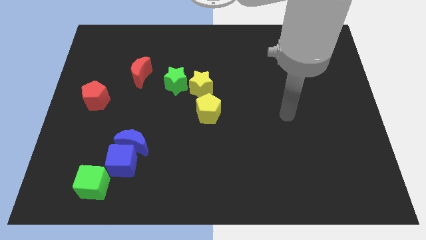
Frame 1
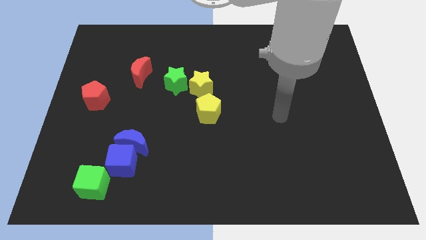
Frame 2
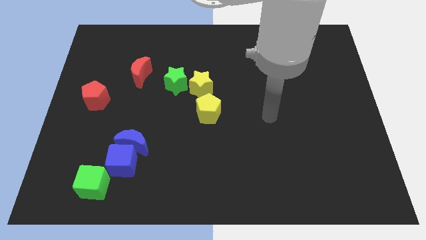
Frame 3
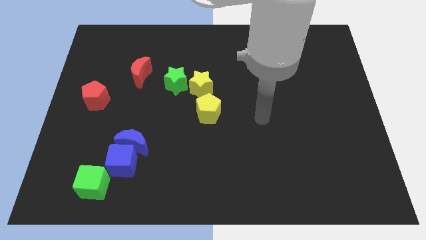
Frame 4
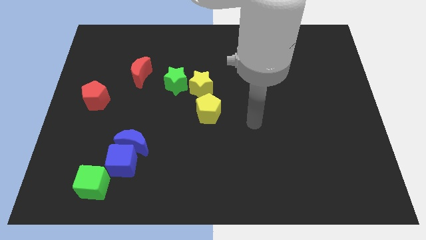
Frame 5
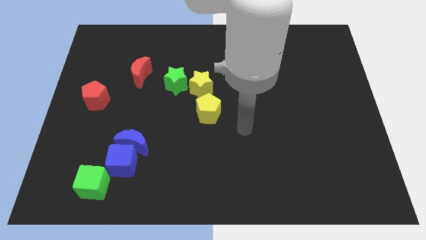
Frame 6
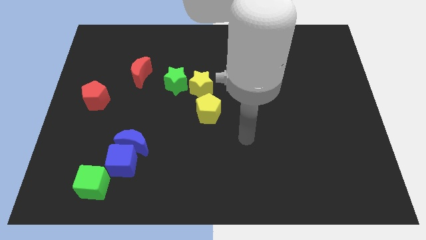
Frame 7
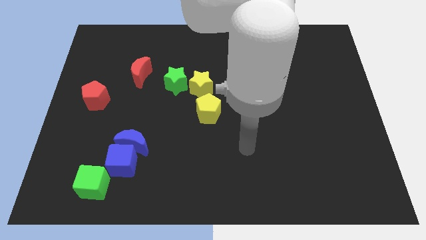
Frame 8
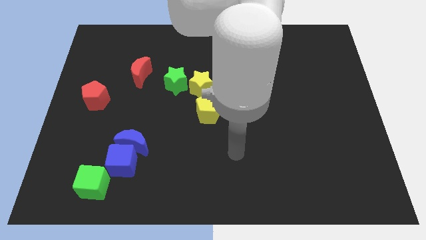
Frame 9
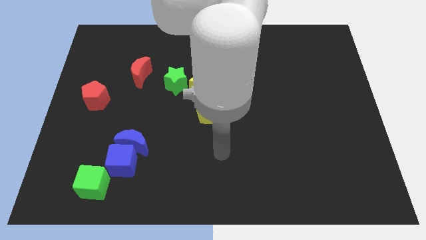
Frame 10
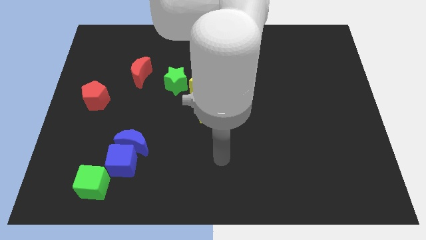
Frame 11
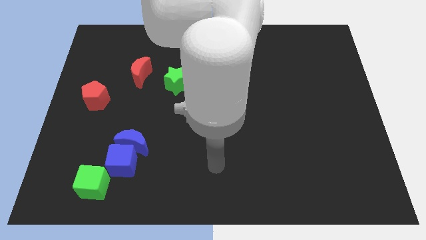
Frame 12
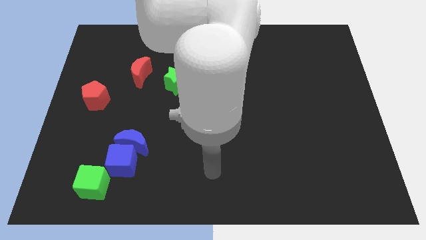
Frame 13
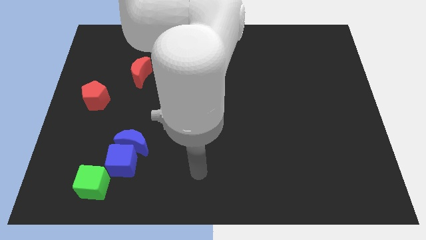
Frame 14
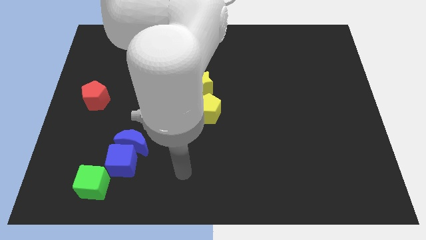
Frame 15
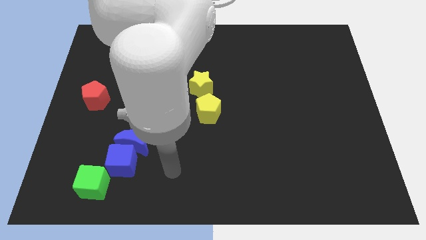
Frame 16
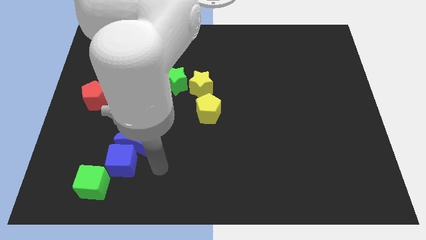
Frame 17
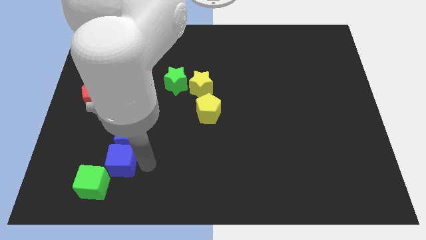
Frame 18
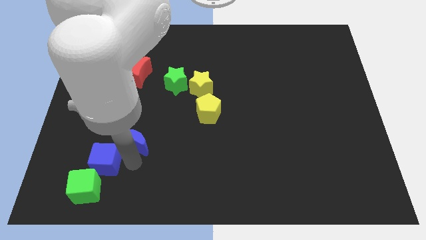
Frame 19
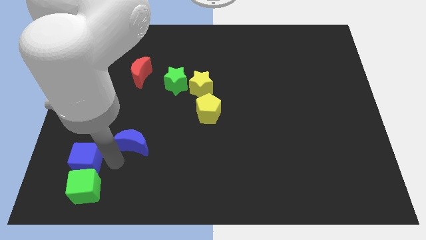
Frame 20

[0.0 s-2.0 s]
separate the blue moon from the blue cube

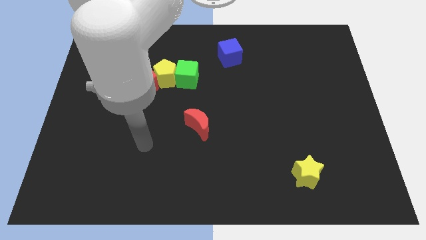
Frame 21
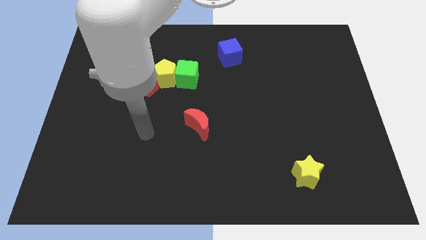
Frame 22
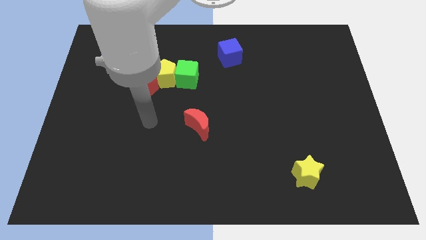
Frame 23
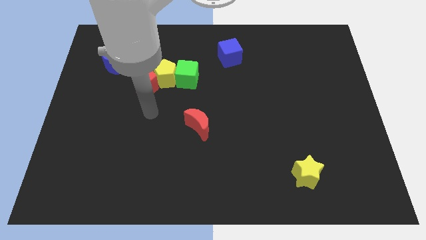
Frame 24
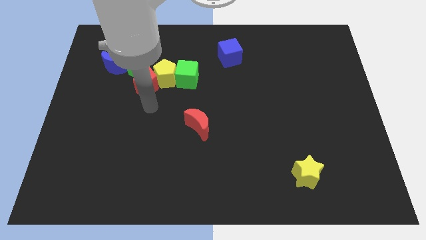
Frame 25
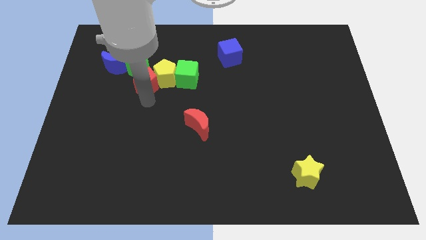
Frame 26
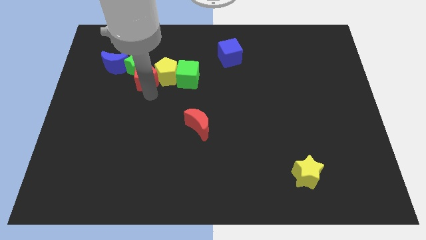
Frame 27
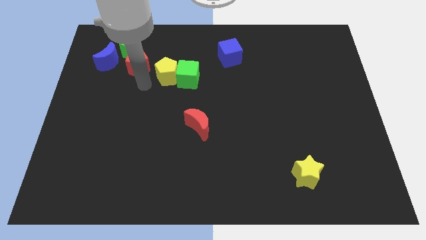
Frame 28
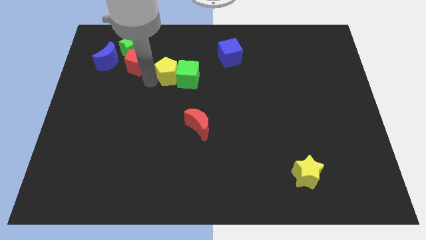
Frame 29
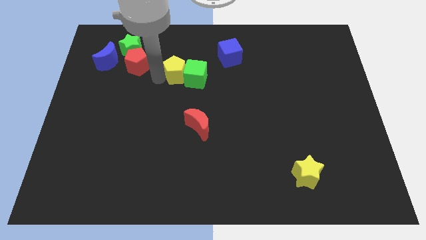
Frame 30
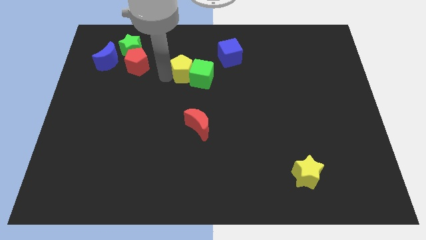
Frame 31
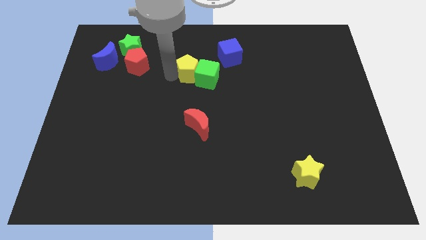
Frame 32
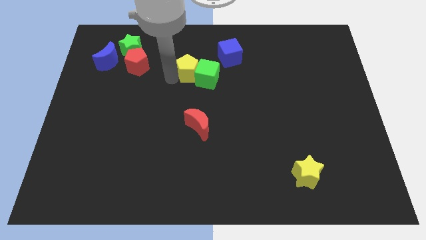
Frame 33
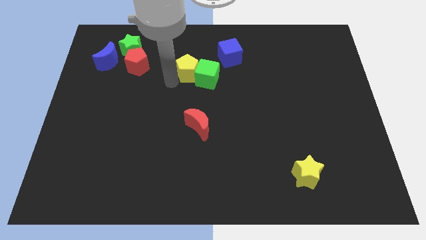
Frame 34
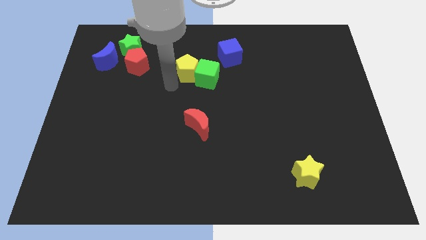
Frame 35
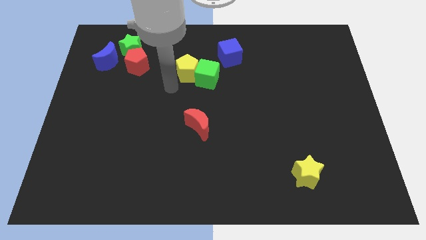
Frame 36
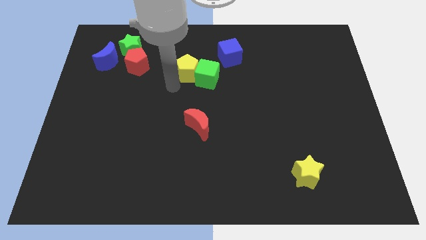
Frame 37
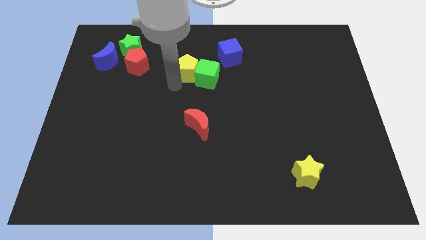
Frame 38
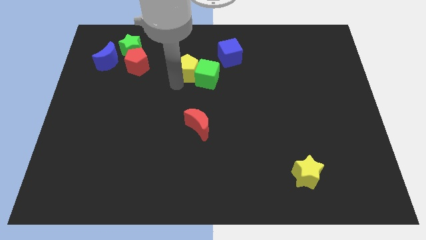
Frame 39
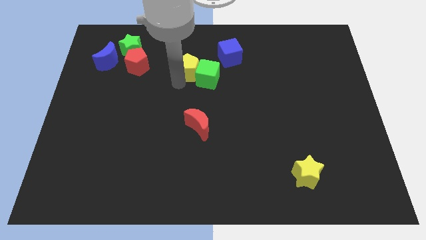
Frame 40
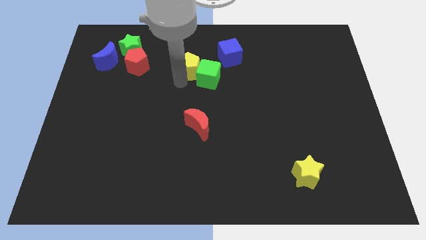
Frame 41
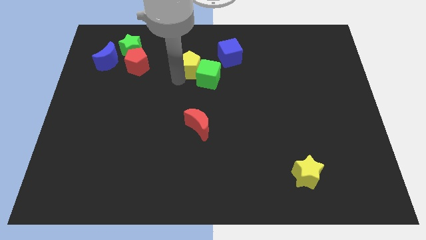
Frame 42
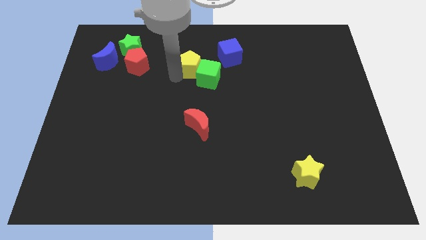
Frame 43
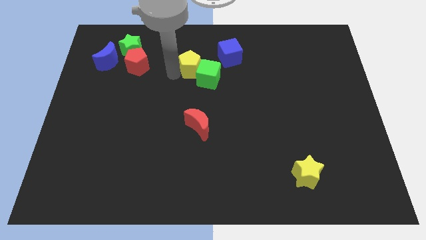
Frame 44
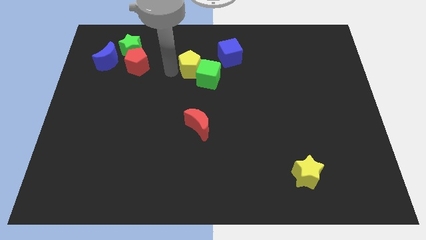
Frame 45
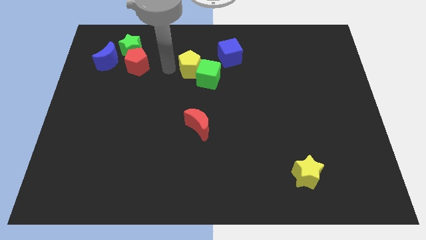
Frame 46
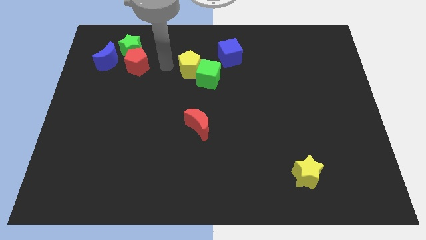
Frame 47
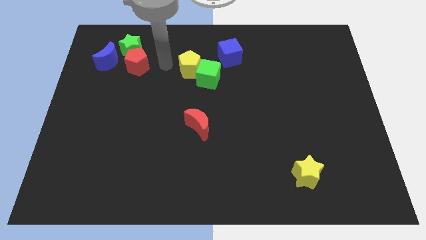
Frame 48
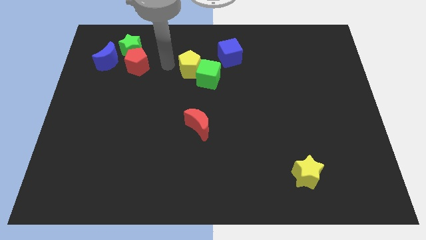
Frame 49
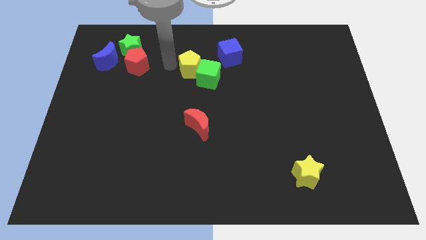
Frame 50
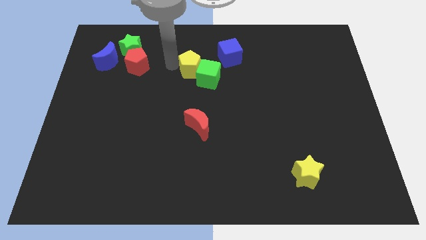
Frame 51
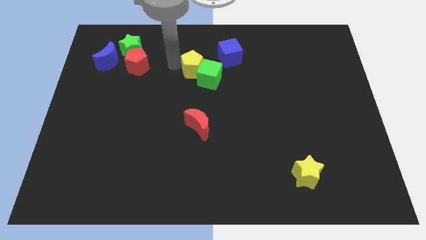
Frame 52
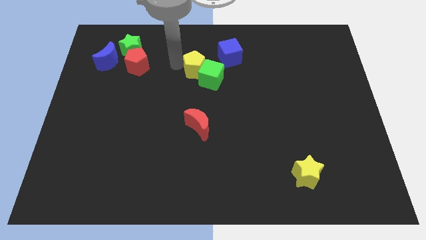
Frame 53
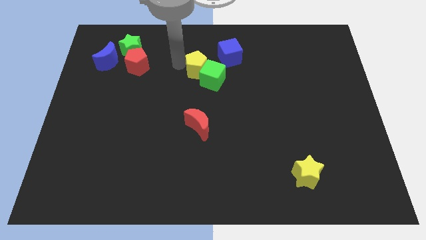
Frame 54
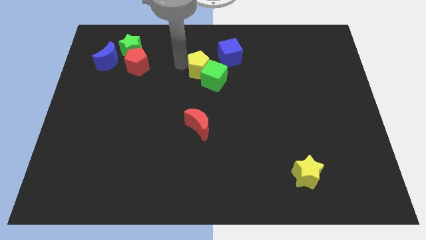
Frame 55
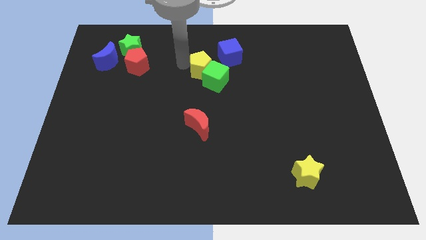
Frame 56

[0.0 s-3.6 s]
move the yellow pentagon away from the group of blocks

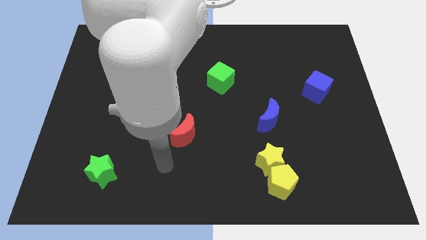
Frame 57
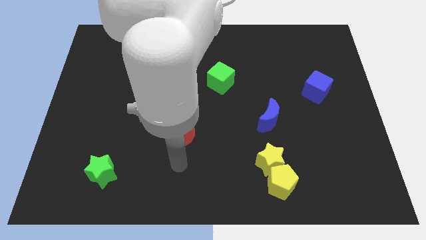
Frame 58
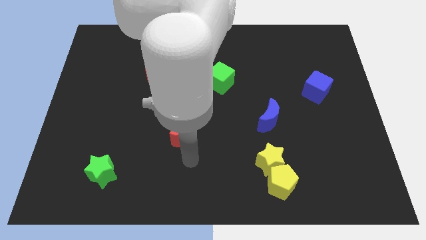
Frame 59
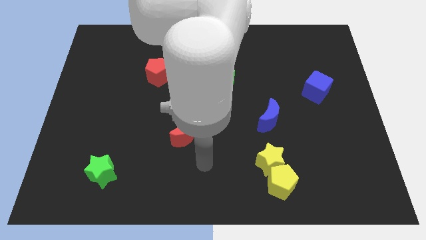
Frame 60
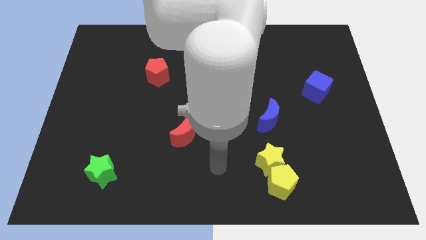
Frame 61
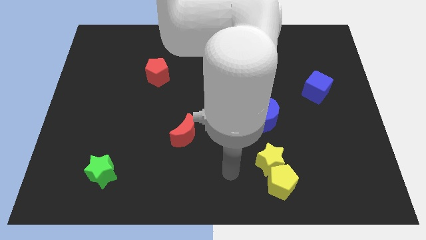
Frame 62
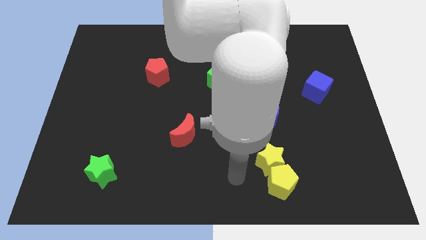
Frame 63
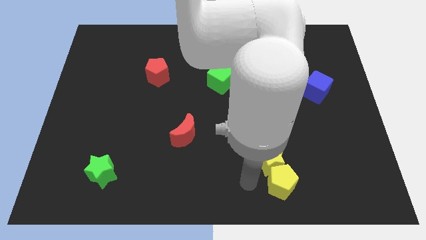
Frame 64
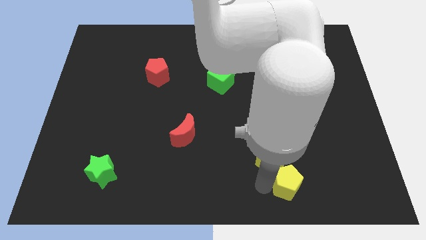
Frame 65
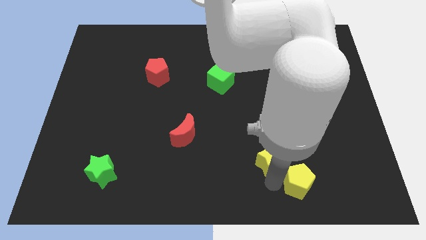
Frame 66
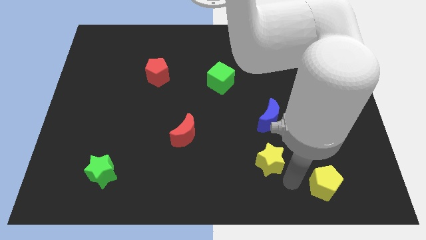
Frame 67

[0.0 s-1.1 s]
separate the yellow star from the yellow pentagon

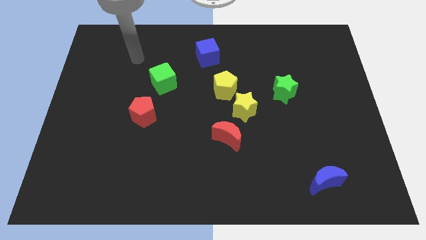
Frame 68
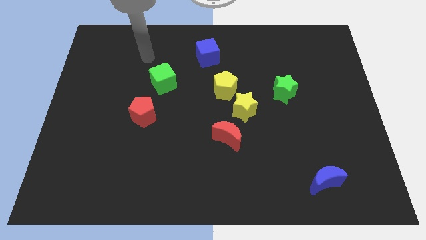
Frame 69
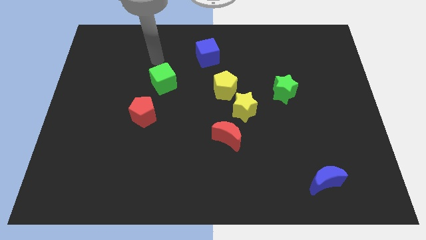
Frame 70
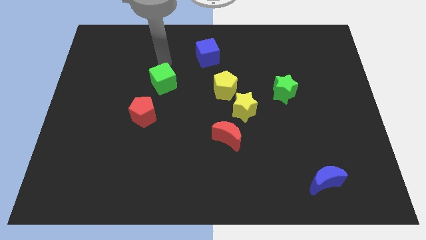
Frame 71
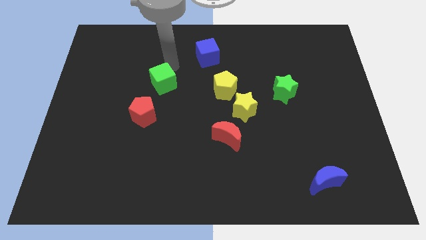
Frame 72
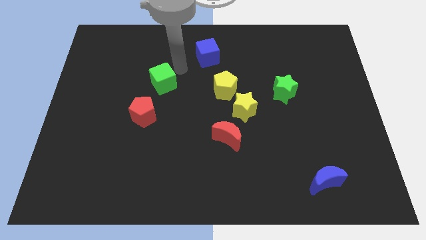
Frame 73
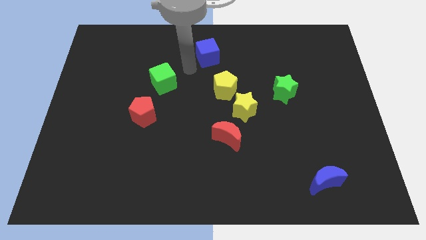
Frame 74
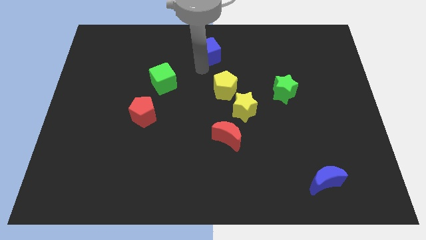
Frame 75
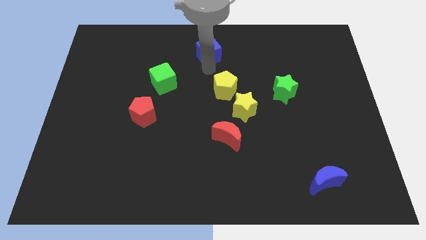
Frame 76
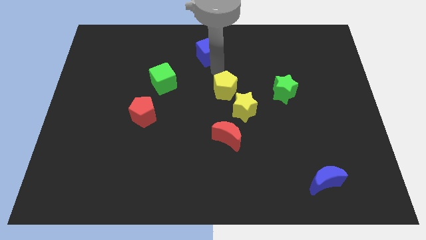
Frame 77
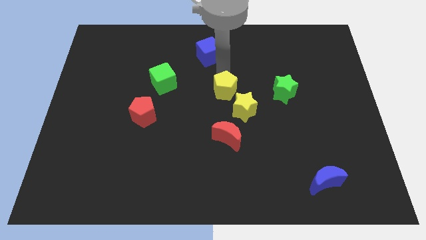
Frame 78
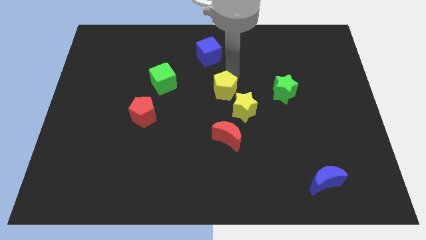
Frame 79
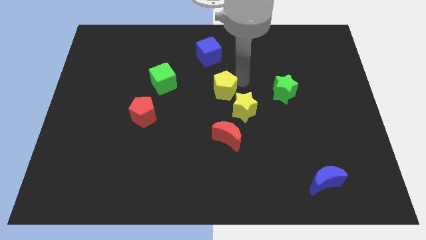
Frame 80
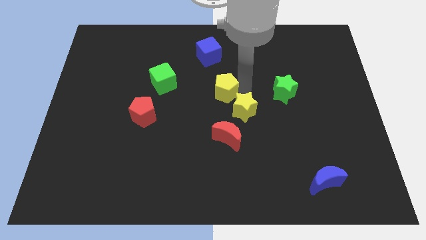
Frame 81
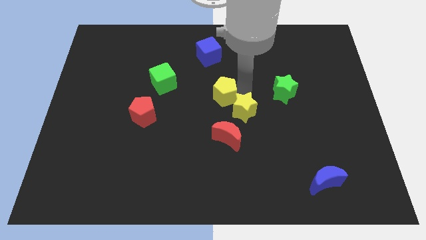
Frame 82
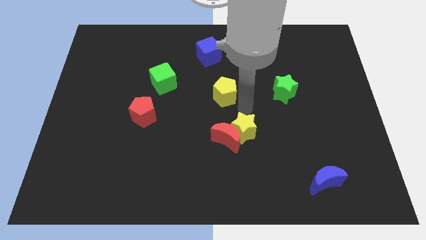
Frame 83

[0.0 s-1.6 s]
pull the yellow pentagon apart from the yellow star

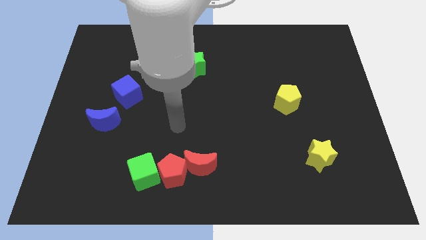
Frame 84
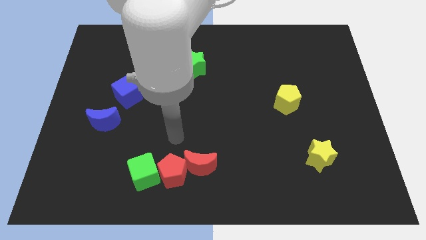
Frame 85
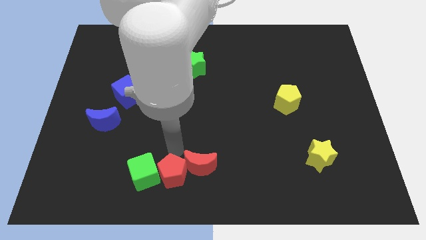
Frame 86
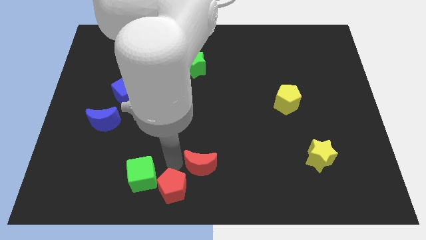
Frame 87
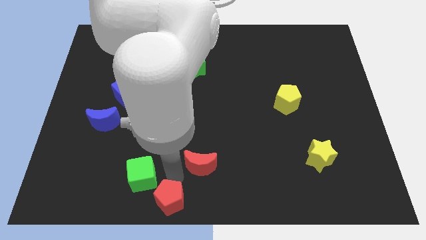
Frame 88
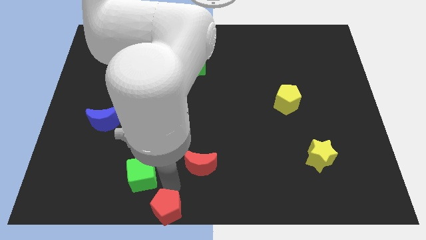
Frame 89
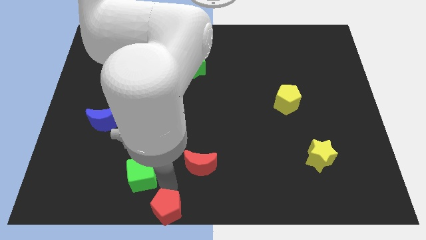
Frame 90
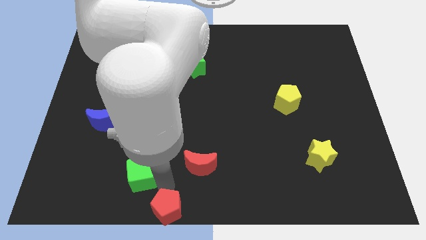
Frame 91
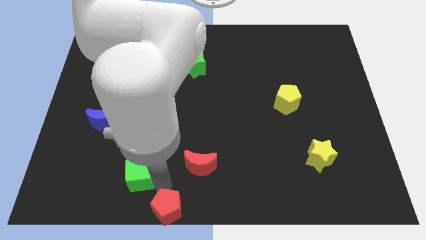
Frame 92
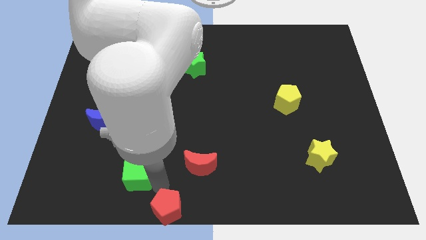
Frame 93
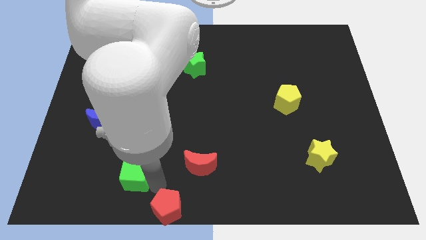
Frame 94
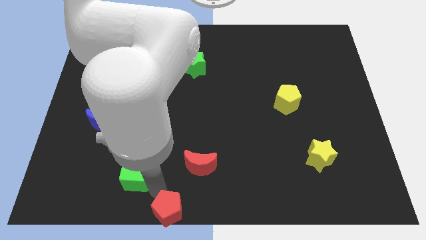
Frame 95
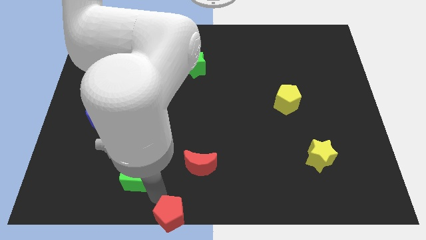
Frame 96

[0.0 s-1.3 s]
pull the green cube apart from the red pentagon
